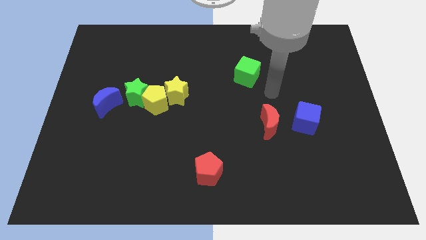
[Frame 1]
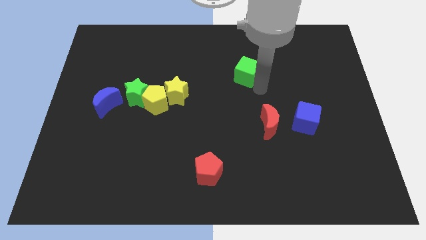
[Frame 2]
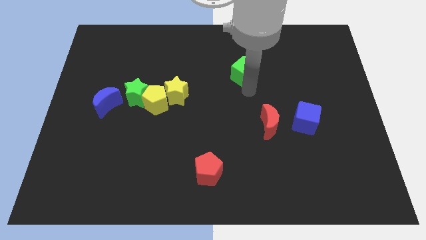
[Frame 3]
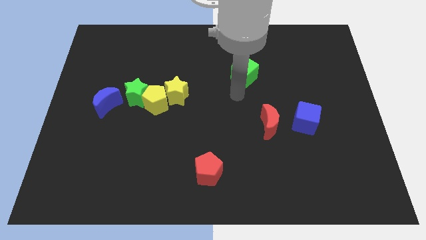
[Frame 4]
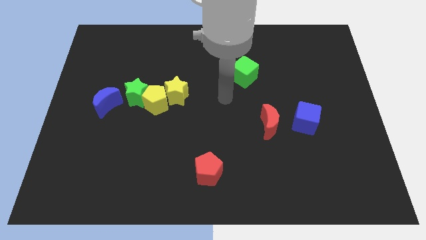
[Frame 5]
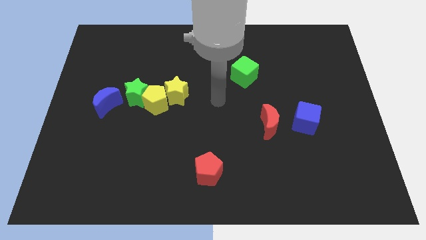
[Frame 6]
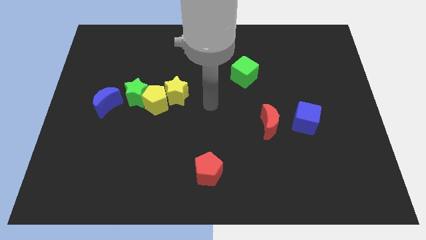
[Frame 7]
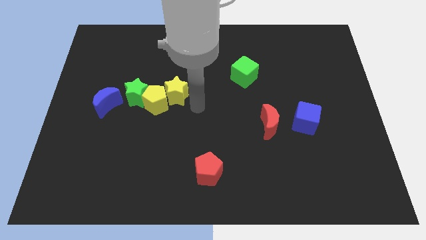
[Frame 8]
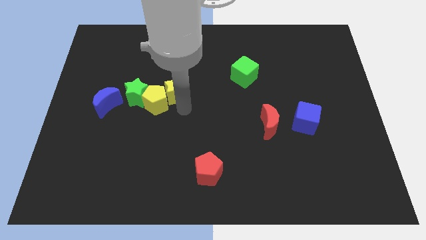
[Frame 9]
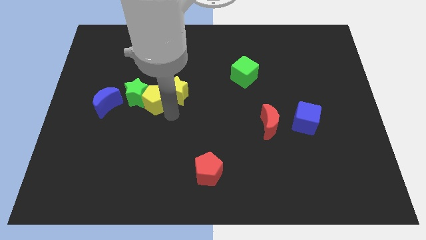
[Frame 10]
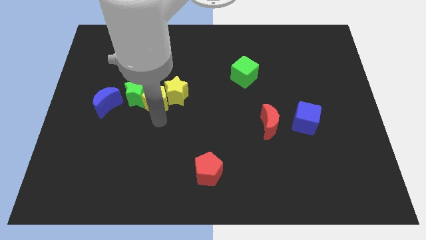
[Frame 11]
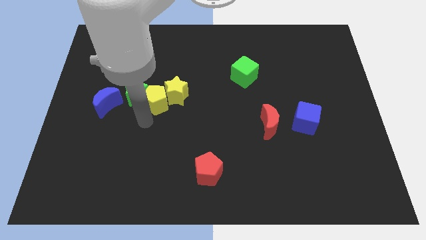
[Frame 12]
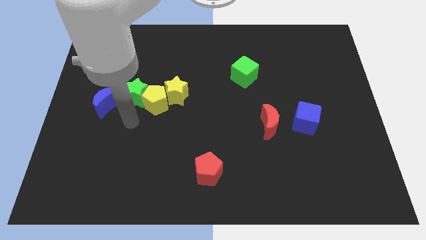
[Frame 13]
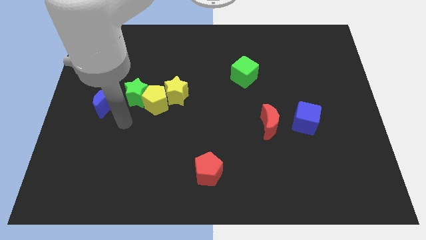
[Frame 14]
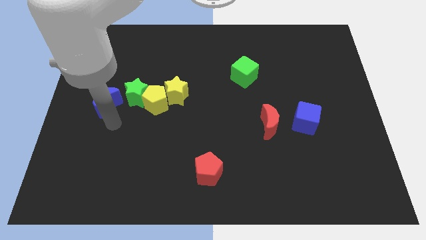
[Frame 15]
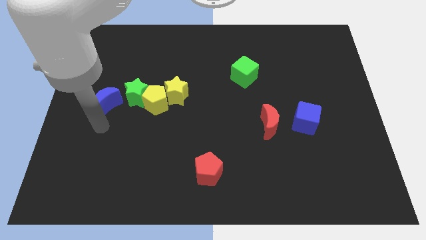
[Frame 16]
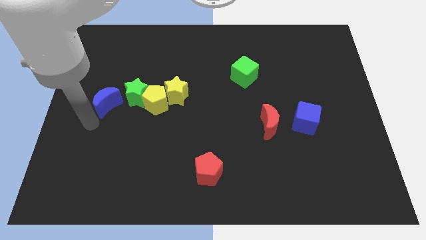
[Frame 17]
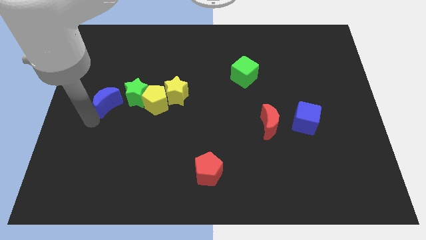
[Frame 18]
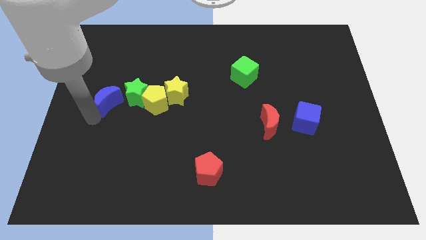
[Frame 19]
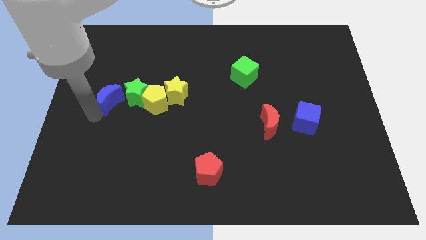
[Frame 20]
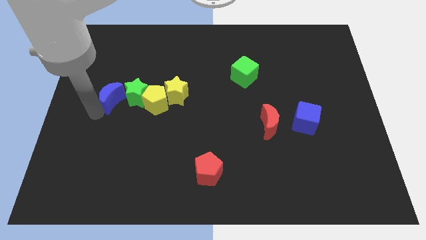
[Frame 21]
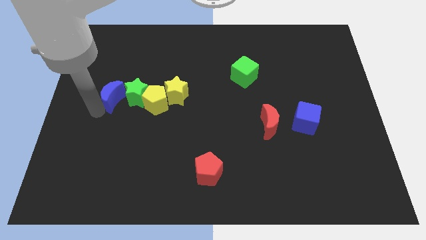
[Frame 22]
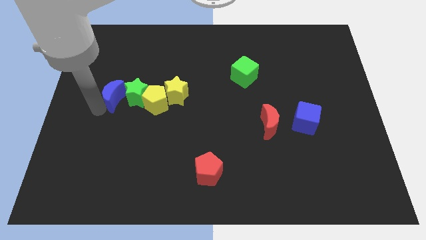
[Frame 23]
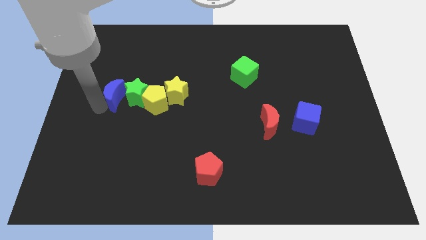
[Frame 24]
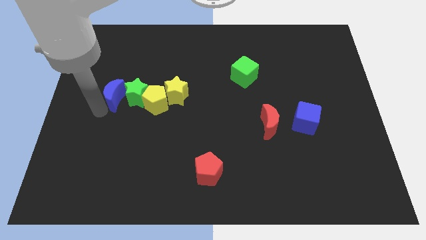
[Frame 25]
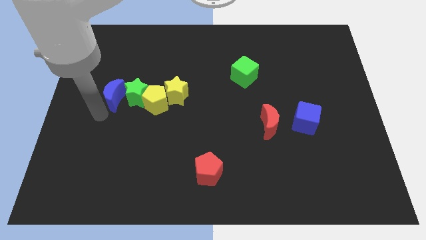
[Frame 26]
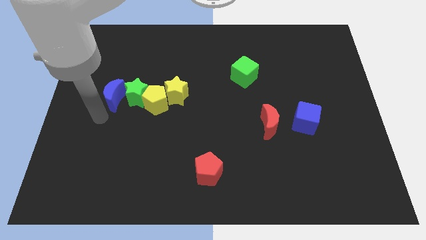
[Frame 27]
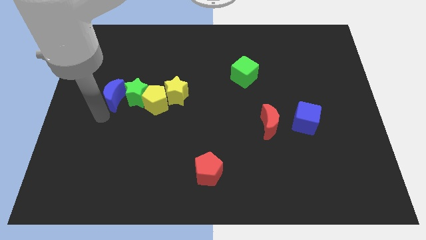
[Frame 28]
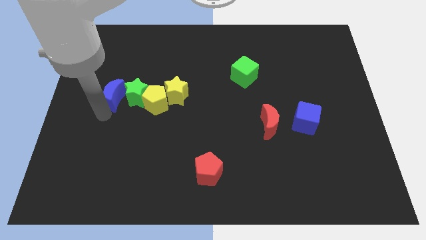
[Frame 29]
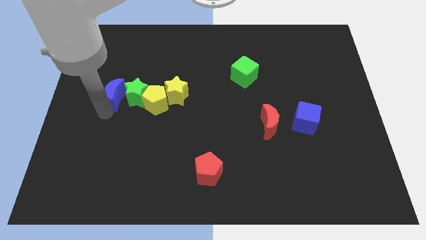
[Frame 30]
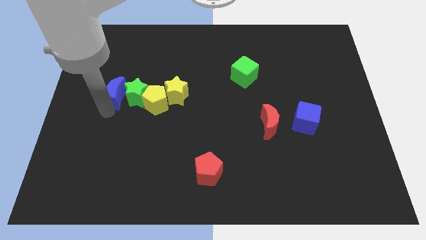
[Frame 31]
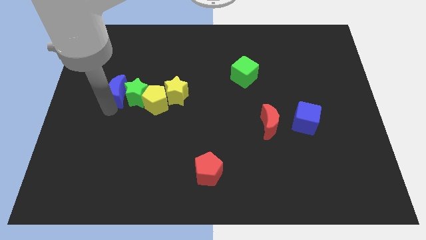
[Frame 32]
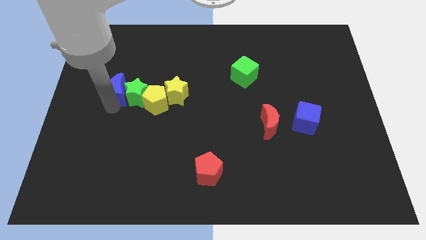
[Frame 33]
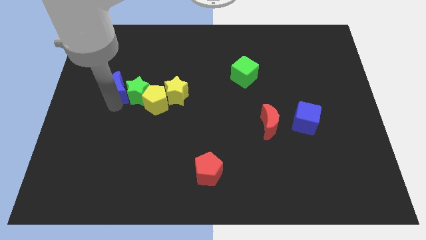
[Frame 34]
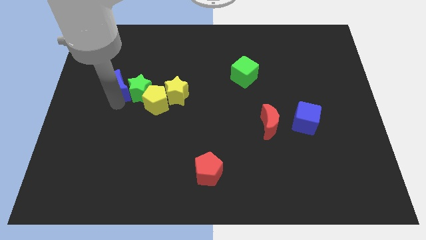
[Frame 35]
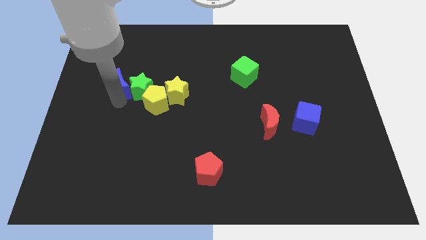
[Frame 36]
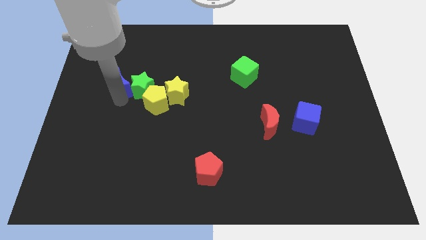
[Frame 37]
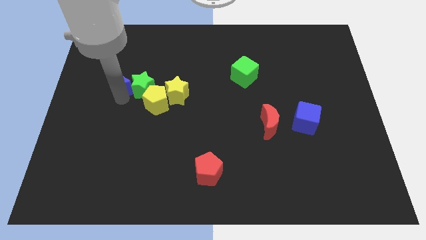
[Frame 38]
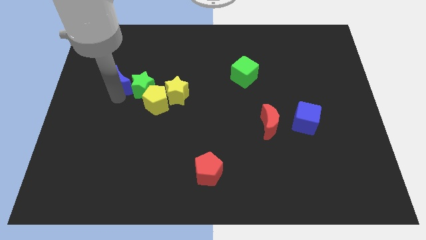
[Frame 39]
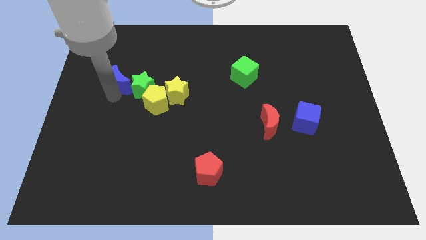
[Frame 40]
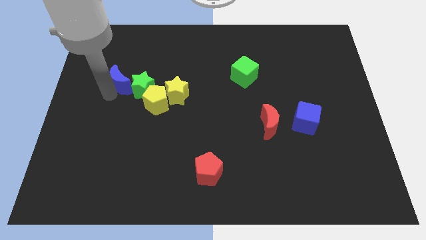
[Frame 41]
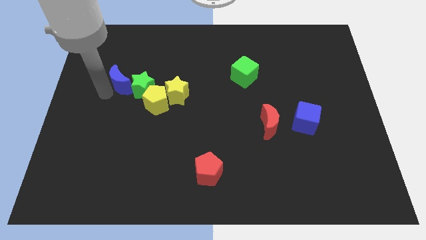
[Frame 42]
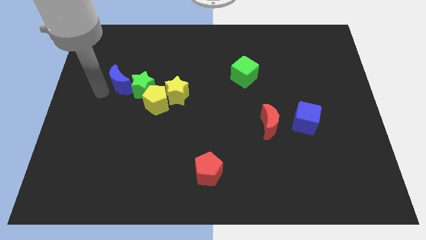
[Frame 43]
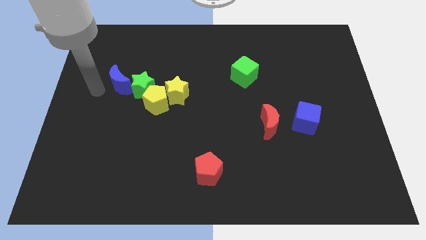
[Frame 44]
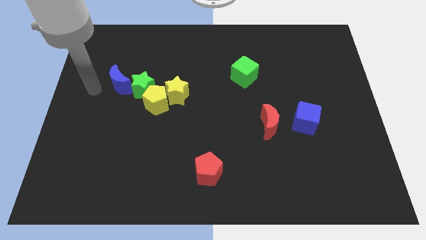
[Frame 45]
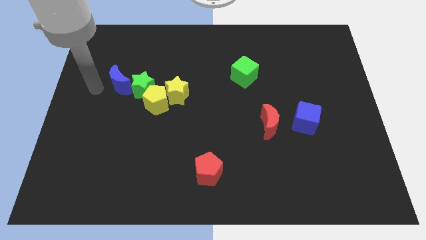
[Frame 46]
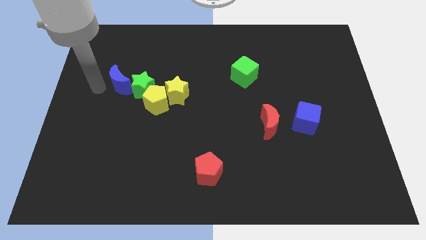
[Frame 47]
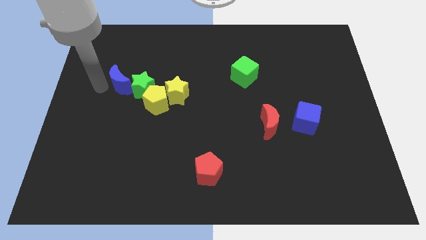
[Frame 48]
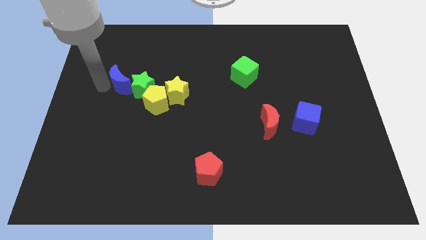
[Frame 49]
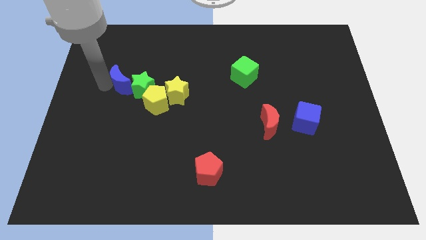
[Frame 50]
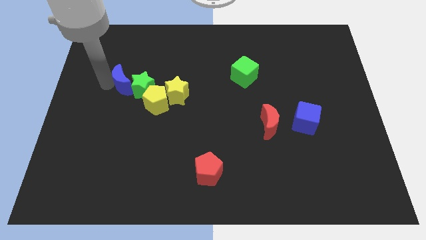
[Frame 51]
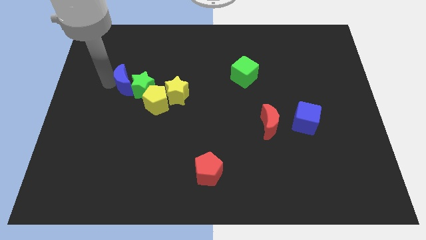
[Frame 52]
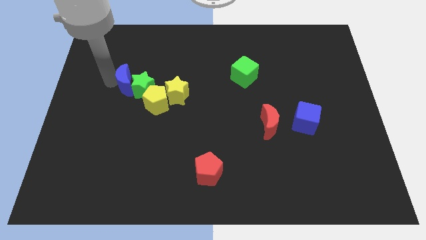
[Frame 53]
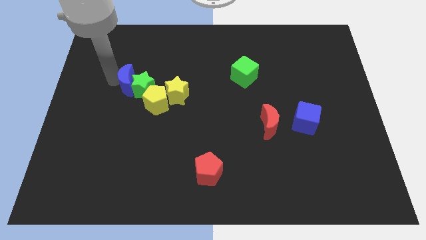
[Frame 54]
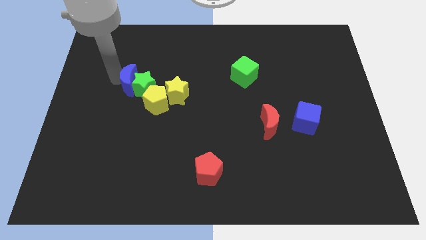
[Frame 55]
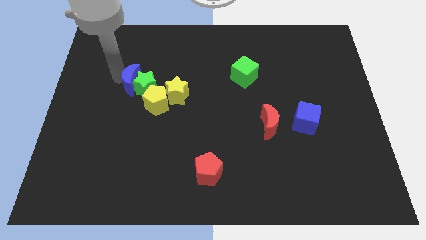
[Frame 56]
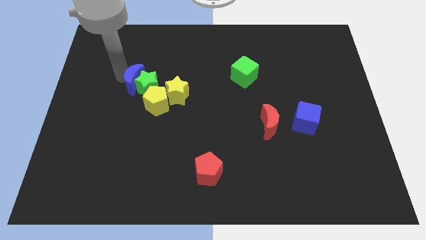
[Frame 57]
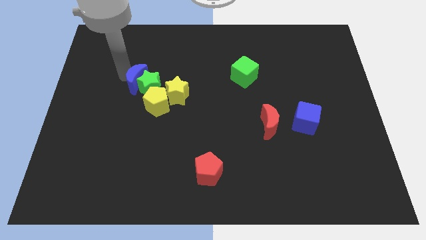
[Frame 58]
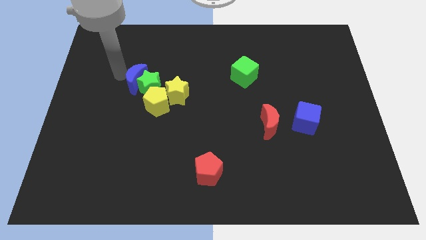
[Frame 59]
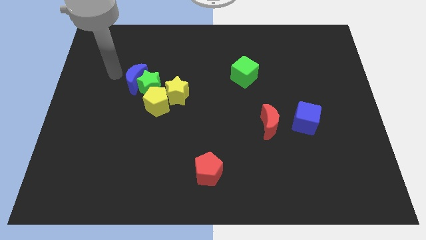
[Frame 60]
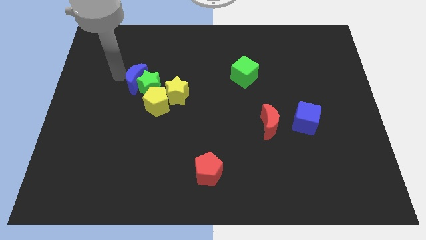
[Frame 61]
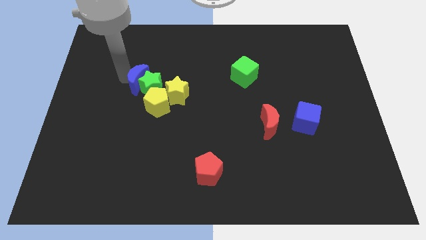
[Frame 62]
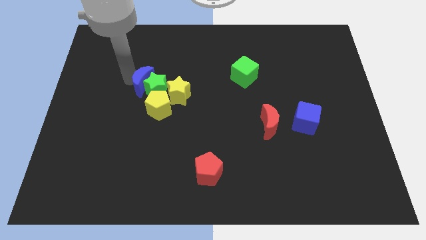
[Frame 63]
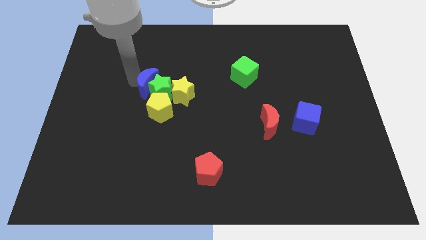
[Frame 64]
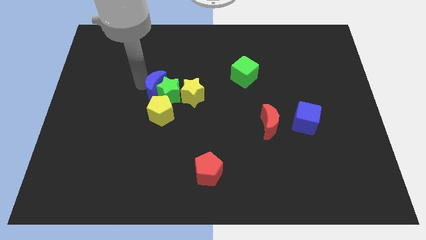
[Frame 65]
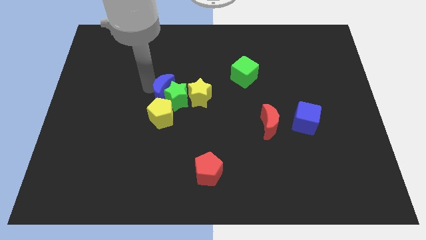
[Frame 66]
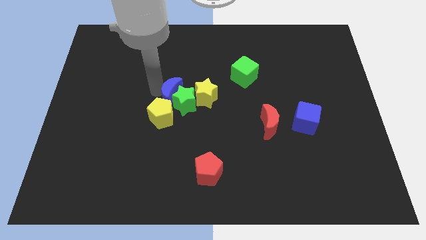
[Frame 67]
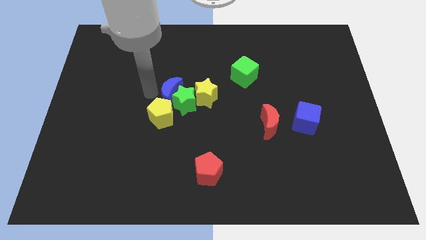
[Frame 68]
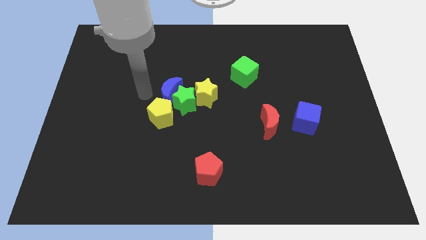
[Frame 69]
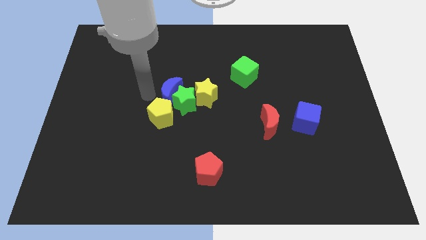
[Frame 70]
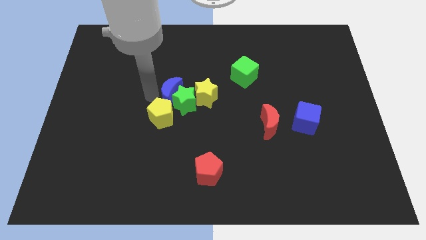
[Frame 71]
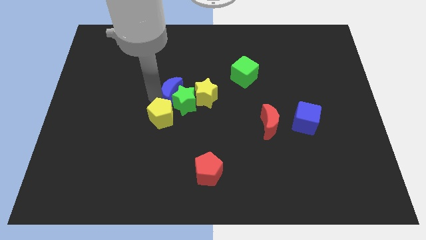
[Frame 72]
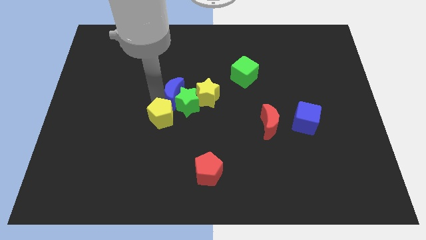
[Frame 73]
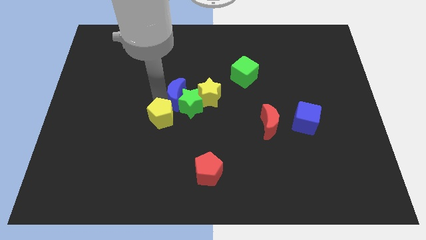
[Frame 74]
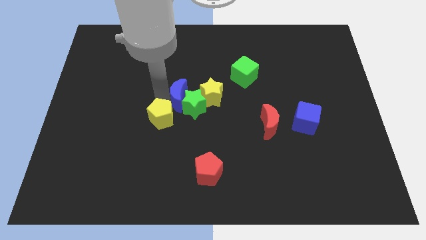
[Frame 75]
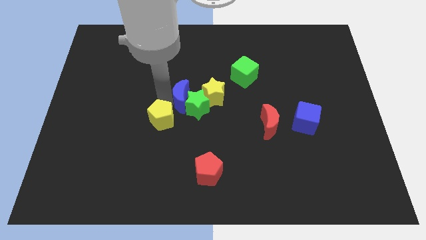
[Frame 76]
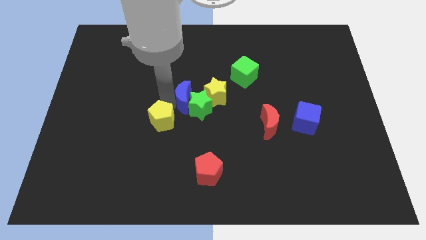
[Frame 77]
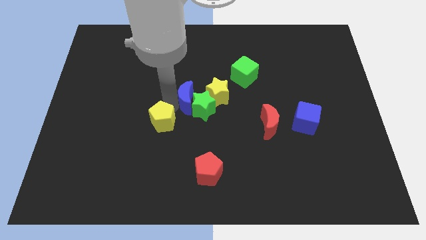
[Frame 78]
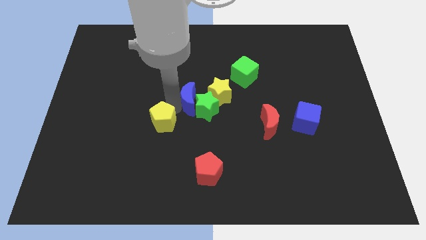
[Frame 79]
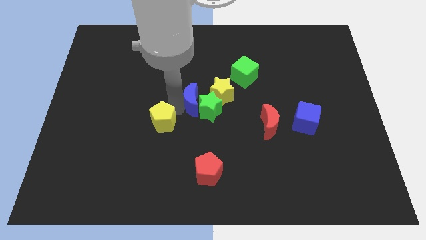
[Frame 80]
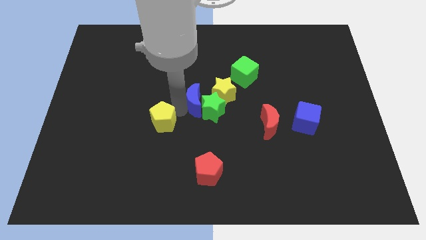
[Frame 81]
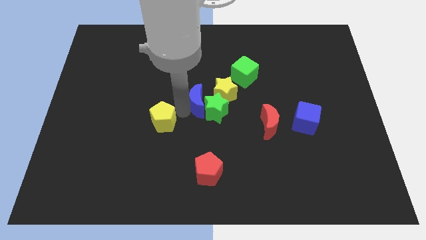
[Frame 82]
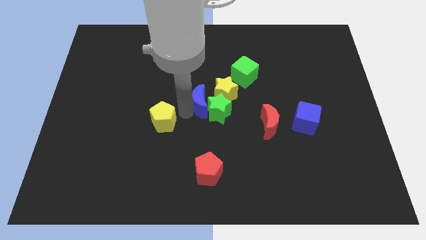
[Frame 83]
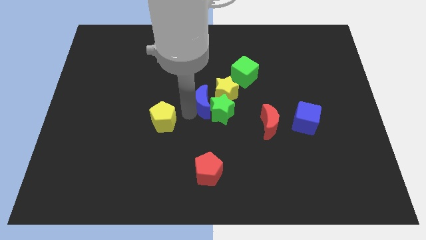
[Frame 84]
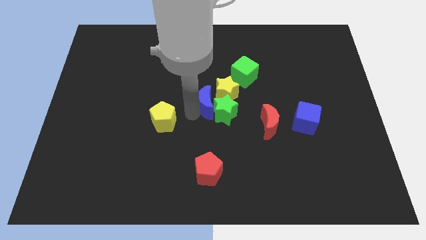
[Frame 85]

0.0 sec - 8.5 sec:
put the blue moon close to the yellow star
